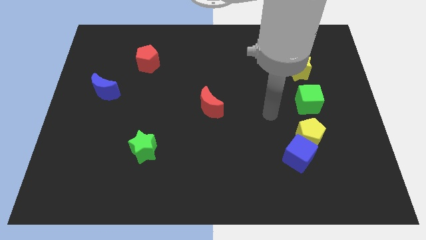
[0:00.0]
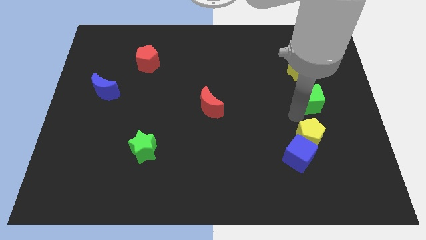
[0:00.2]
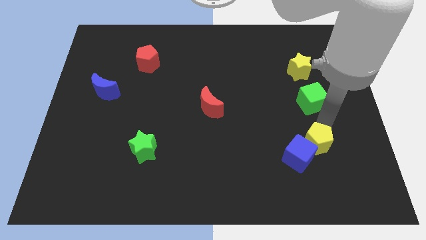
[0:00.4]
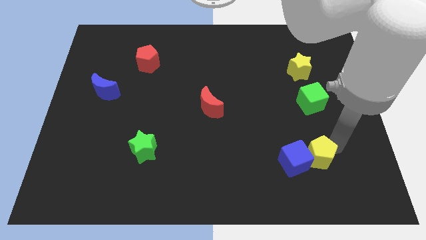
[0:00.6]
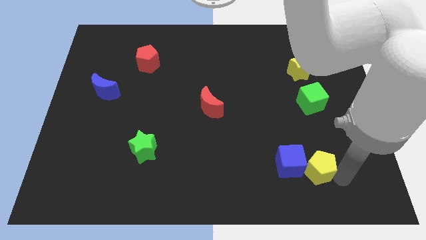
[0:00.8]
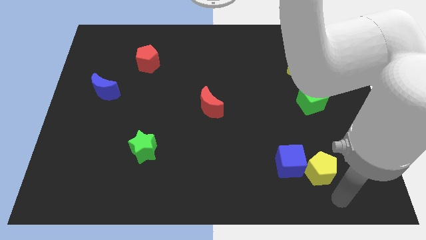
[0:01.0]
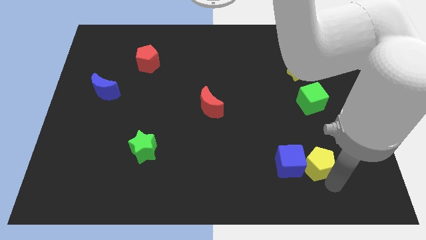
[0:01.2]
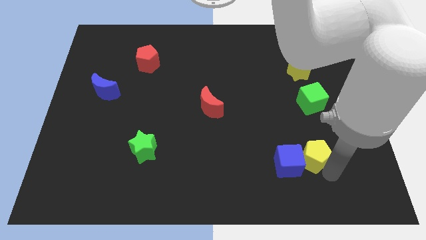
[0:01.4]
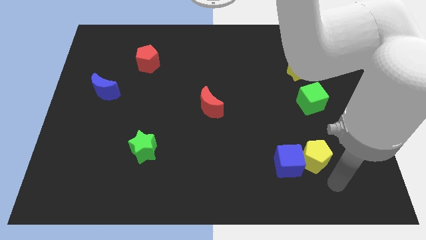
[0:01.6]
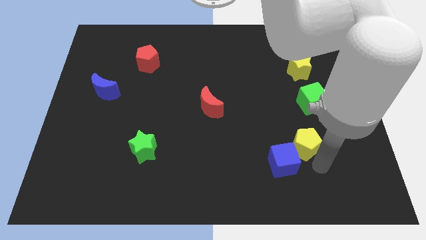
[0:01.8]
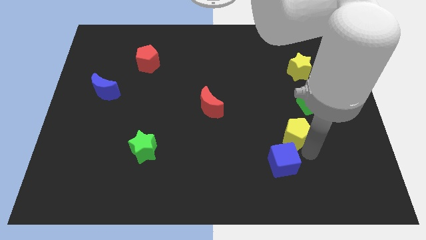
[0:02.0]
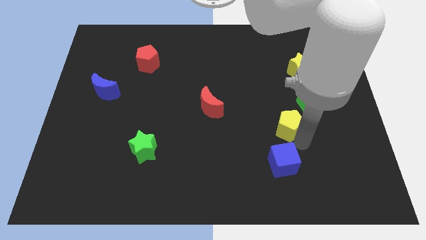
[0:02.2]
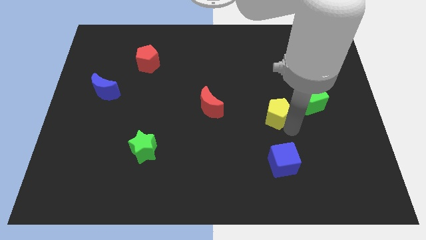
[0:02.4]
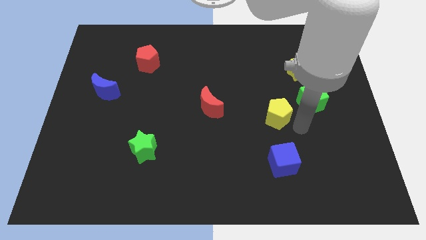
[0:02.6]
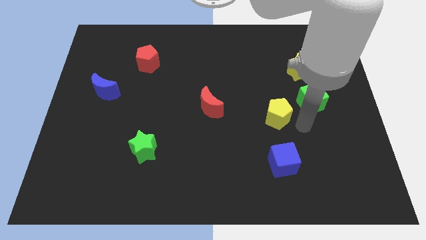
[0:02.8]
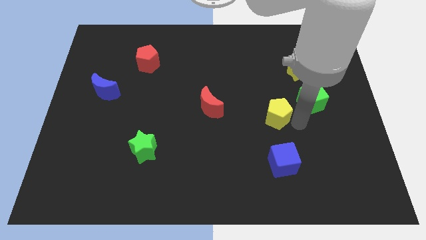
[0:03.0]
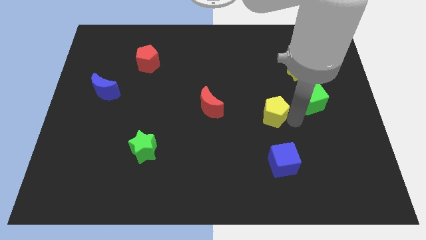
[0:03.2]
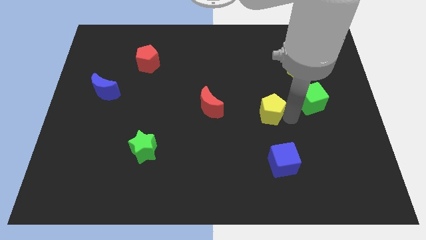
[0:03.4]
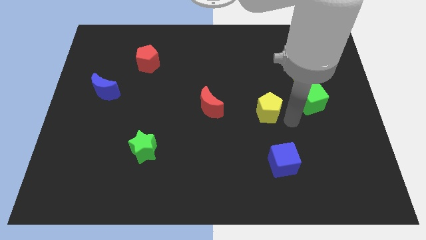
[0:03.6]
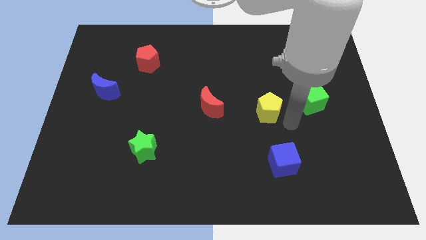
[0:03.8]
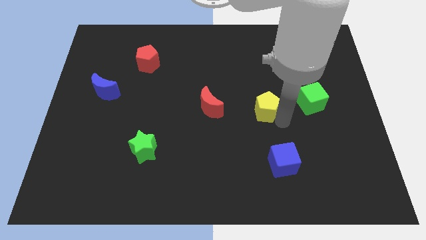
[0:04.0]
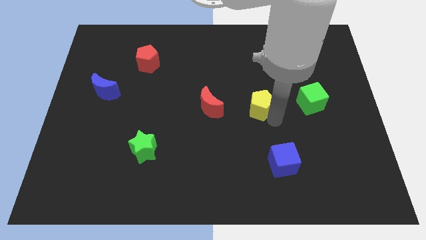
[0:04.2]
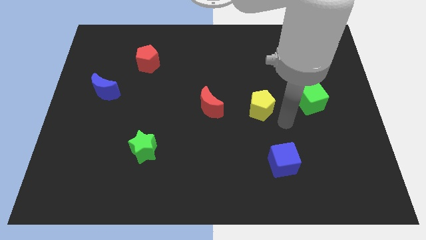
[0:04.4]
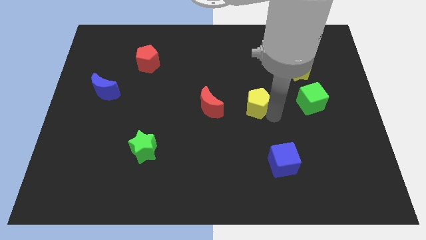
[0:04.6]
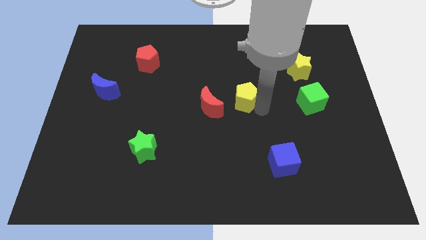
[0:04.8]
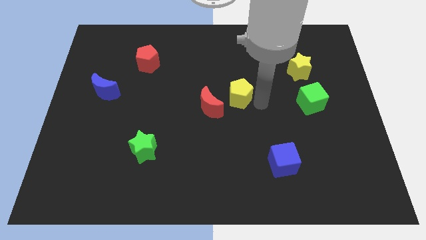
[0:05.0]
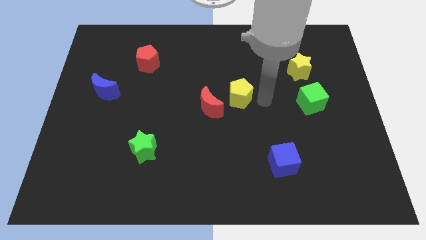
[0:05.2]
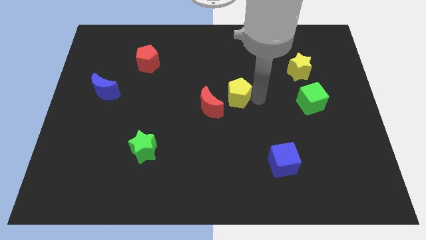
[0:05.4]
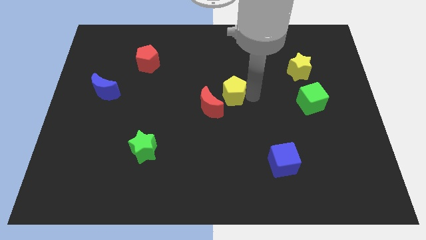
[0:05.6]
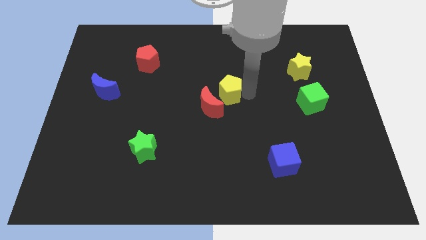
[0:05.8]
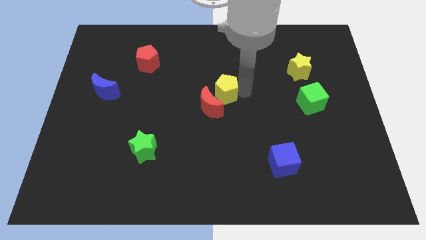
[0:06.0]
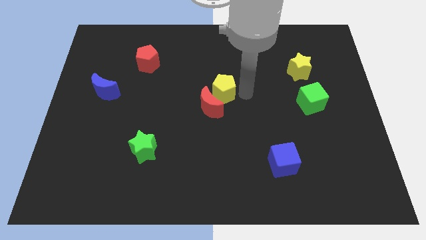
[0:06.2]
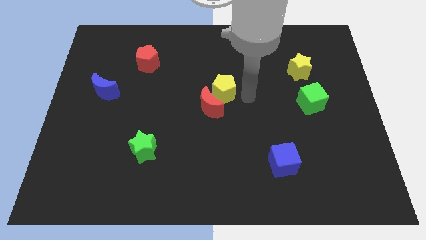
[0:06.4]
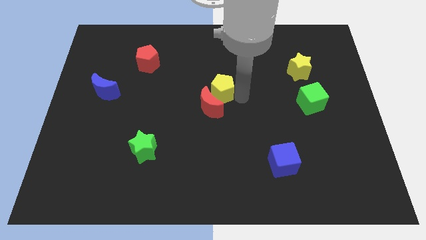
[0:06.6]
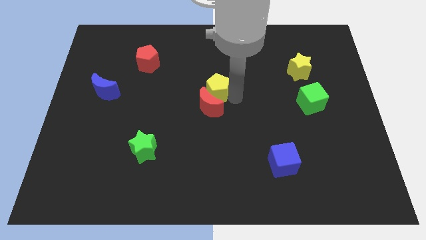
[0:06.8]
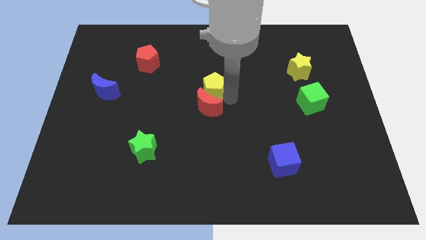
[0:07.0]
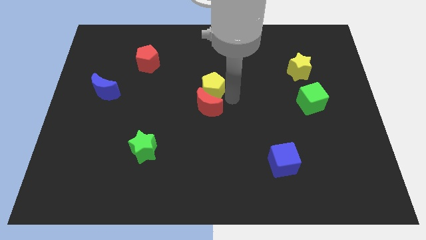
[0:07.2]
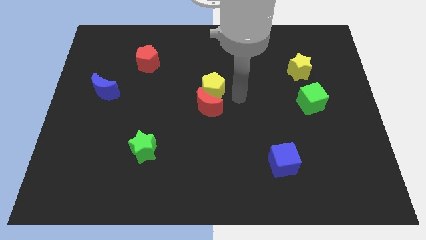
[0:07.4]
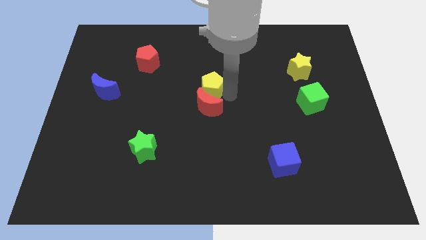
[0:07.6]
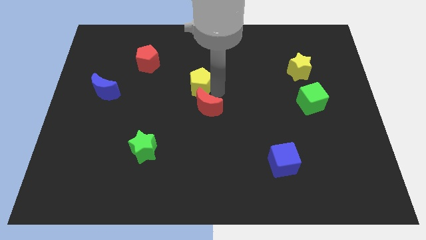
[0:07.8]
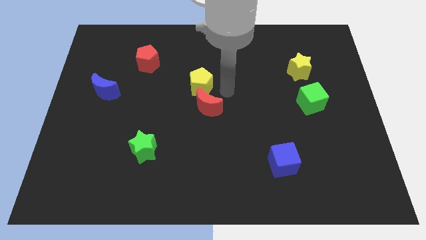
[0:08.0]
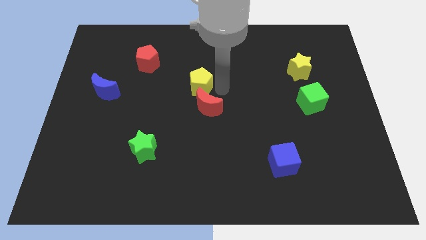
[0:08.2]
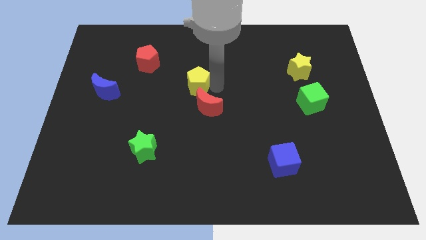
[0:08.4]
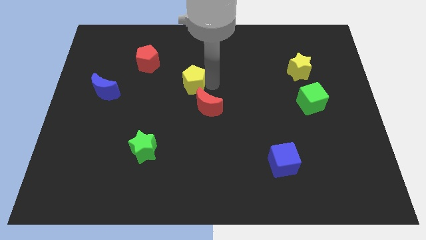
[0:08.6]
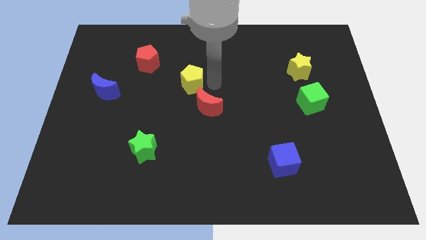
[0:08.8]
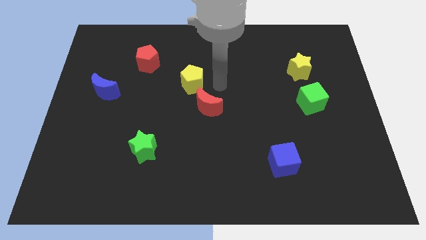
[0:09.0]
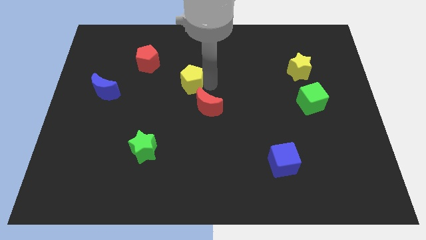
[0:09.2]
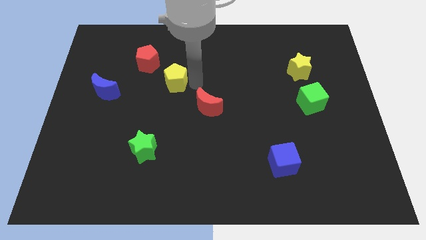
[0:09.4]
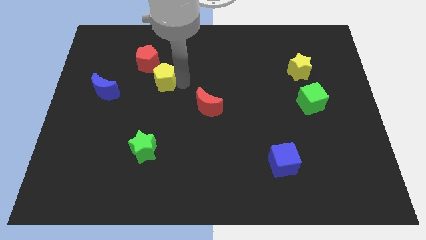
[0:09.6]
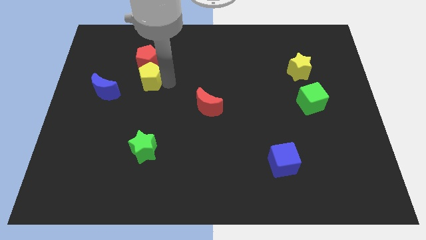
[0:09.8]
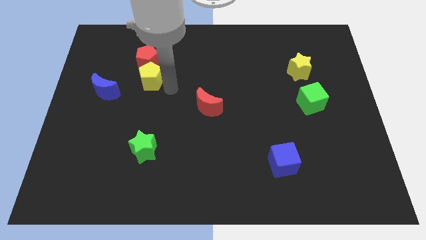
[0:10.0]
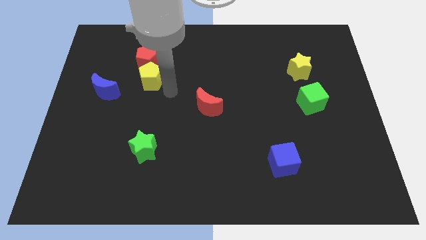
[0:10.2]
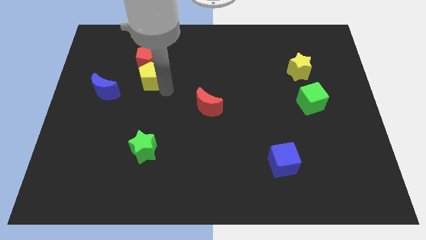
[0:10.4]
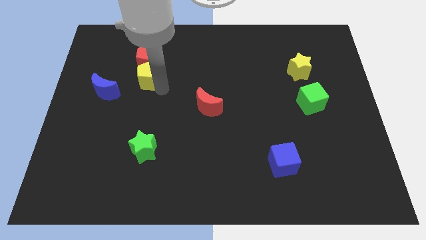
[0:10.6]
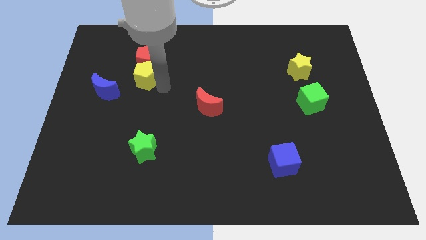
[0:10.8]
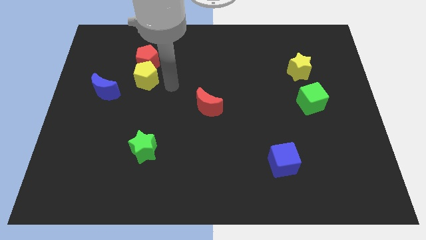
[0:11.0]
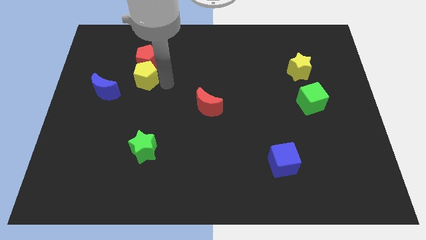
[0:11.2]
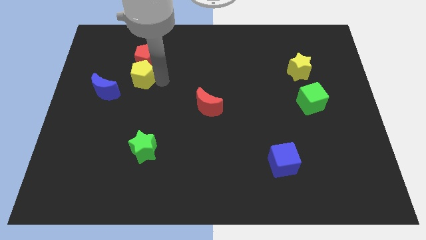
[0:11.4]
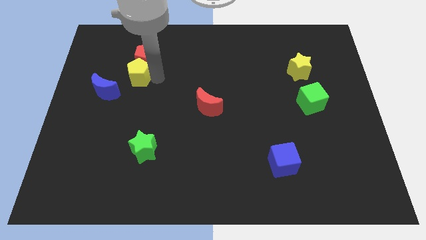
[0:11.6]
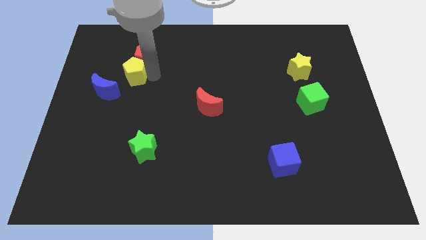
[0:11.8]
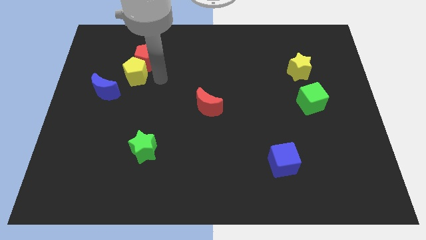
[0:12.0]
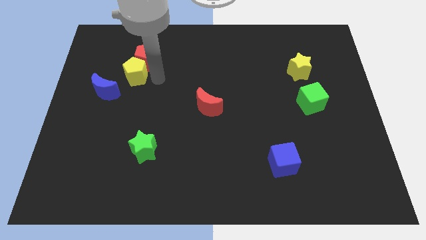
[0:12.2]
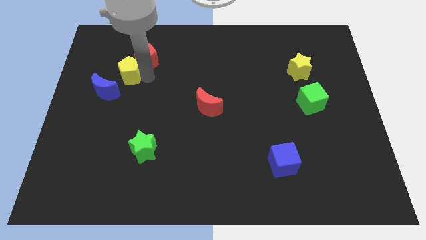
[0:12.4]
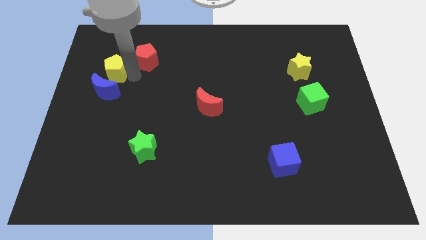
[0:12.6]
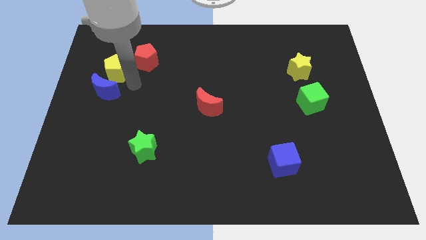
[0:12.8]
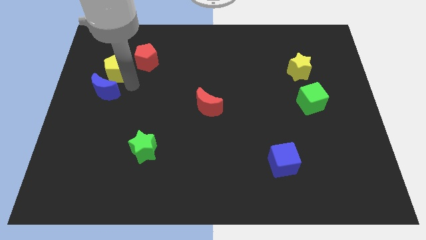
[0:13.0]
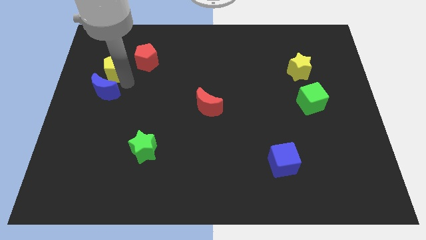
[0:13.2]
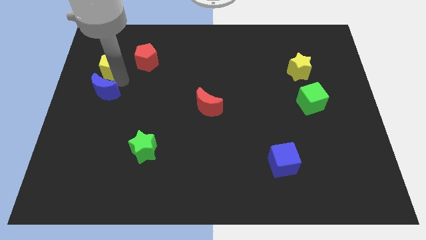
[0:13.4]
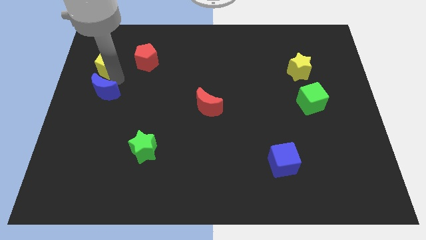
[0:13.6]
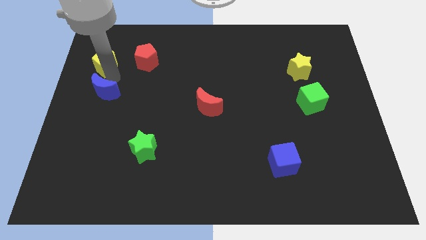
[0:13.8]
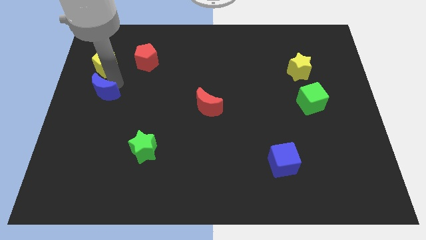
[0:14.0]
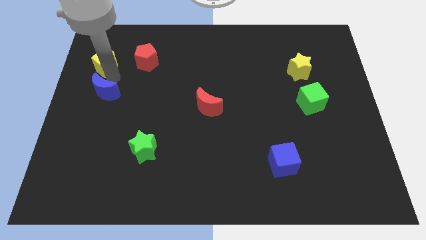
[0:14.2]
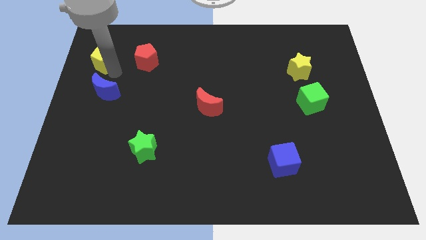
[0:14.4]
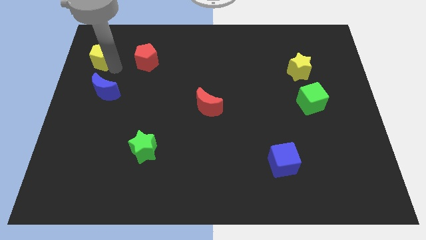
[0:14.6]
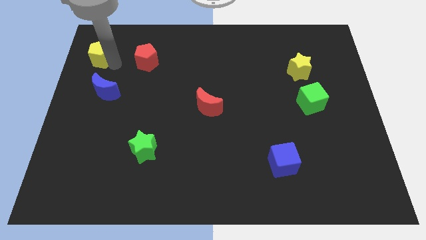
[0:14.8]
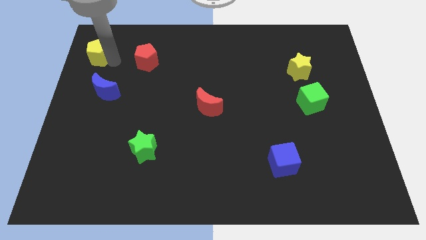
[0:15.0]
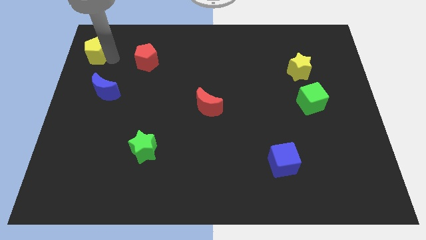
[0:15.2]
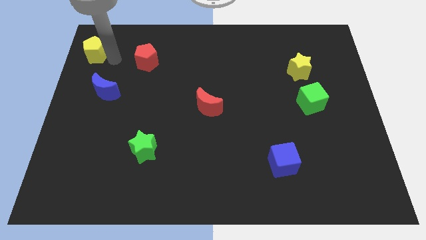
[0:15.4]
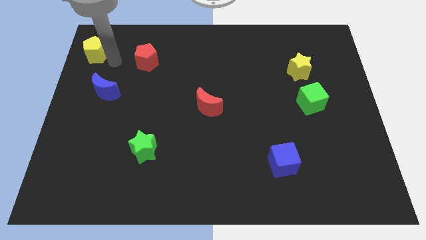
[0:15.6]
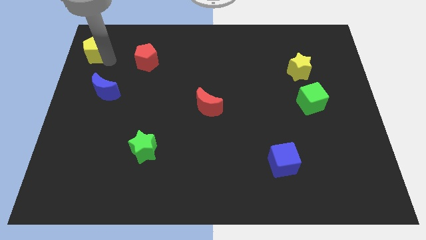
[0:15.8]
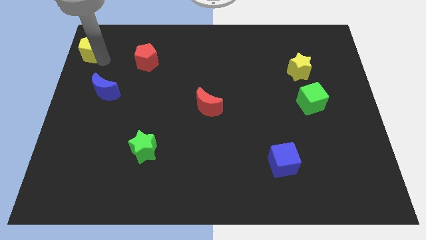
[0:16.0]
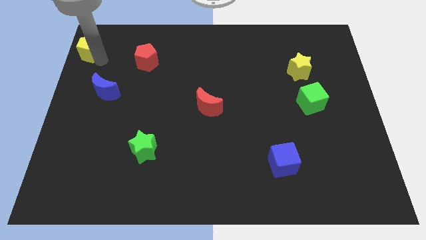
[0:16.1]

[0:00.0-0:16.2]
put the yellow pentagon to the top left corner
